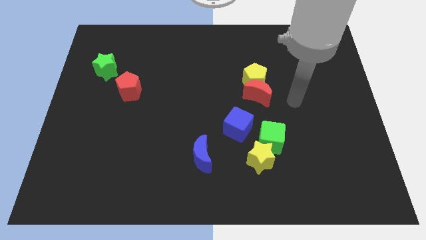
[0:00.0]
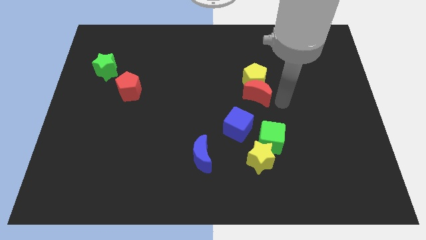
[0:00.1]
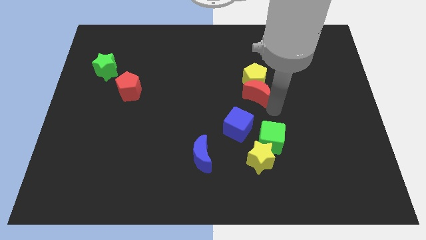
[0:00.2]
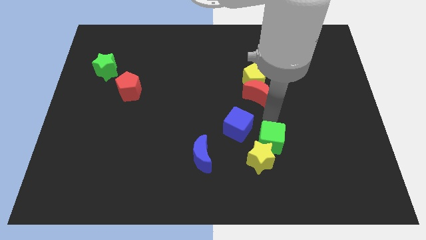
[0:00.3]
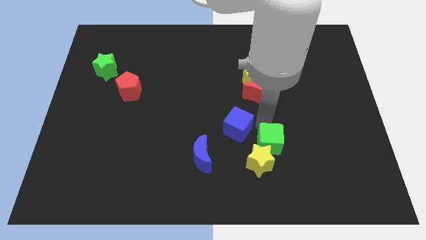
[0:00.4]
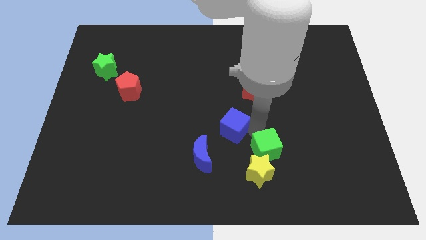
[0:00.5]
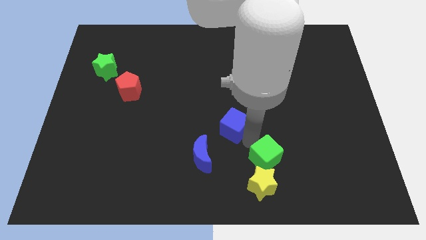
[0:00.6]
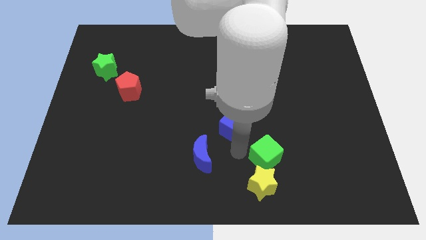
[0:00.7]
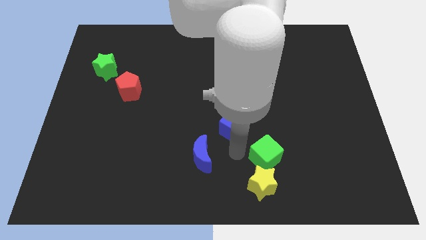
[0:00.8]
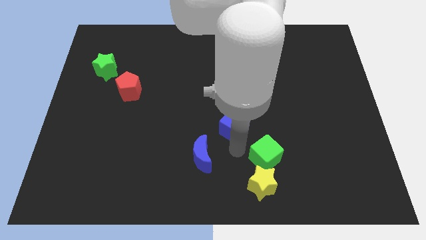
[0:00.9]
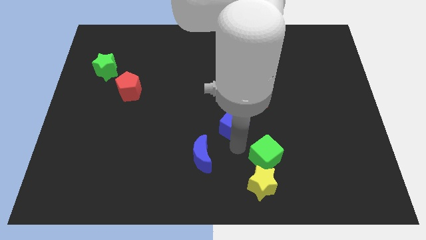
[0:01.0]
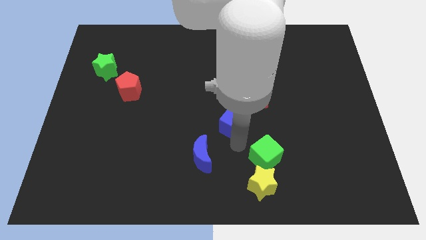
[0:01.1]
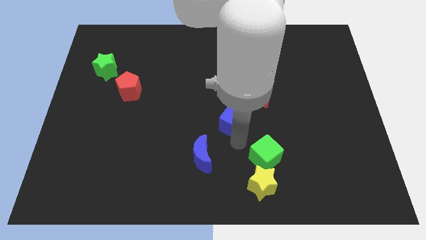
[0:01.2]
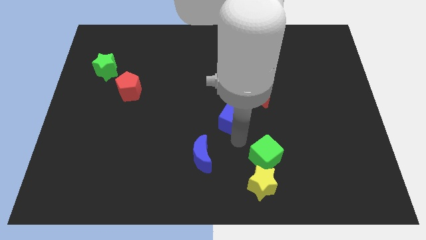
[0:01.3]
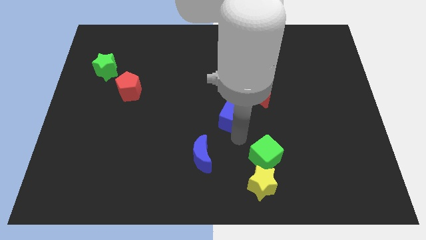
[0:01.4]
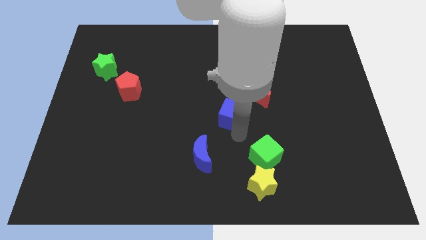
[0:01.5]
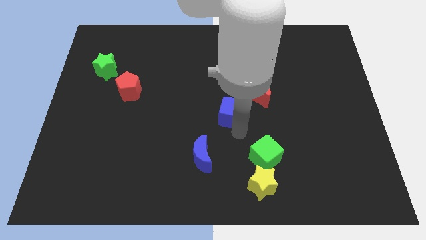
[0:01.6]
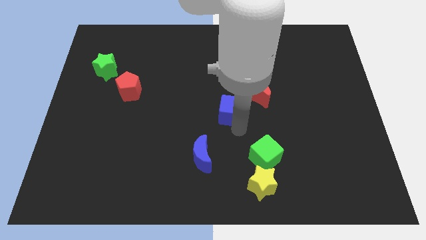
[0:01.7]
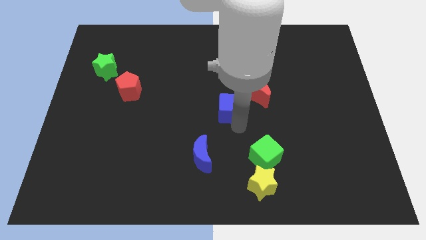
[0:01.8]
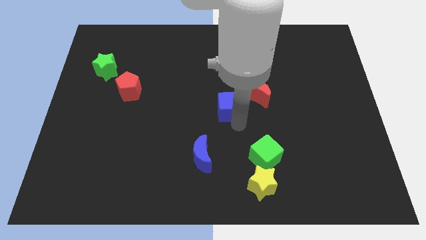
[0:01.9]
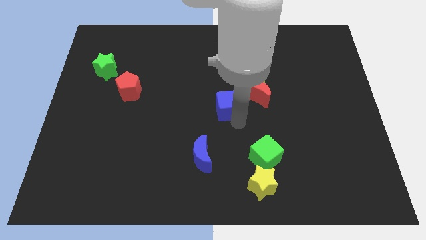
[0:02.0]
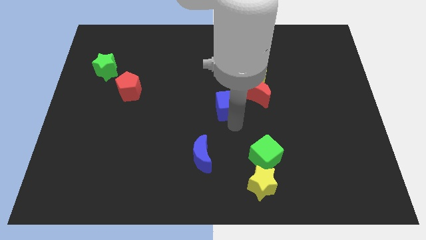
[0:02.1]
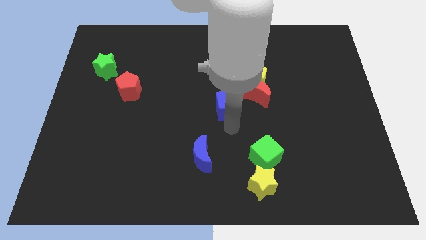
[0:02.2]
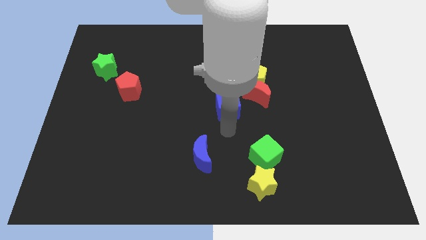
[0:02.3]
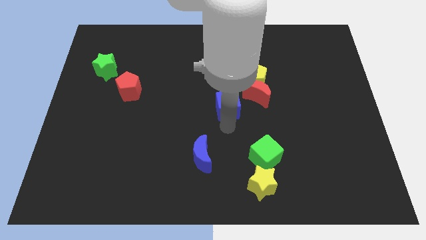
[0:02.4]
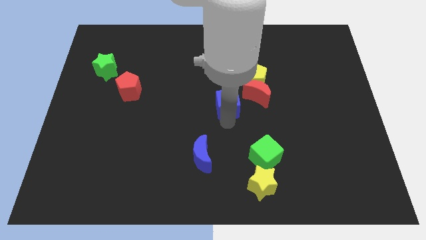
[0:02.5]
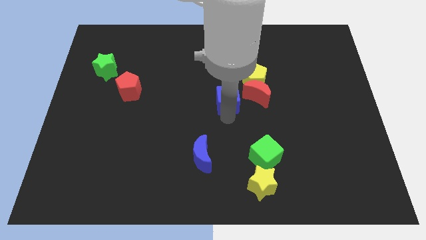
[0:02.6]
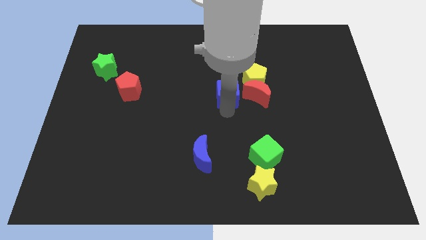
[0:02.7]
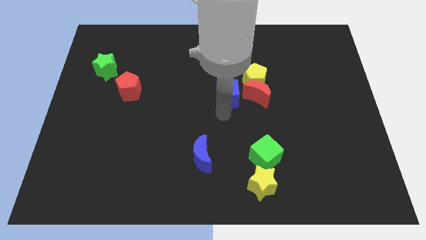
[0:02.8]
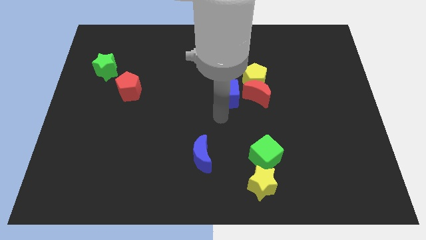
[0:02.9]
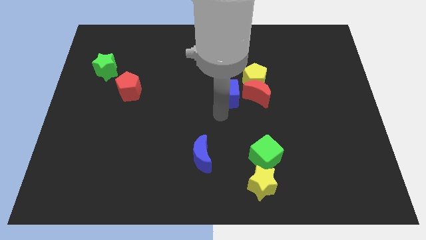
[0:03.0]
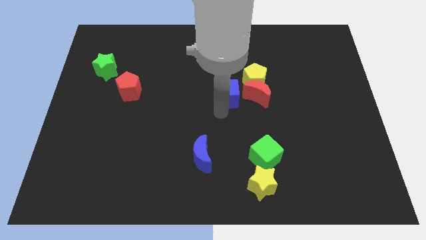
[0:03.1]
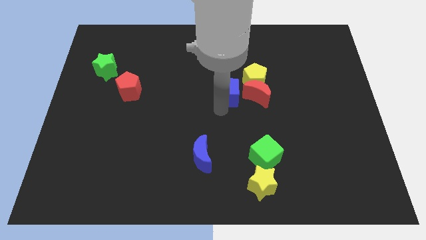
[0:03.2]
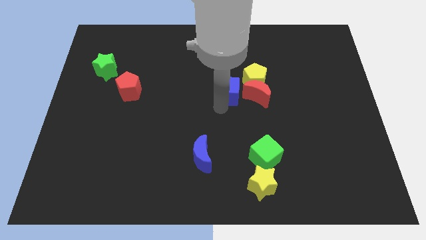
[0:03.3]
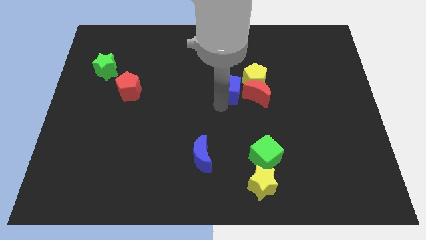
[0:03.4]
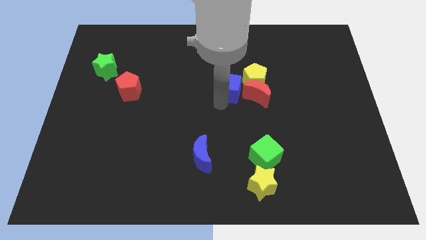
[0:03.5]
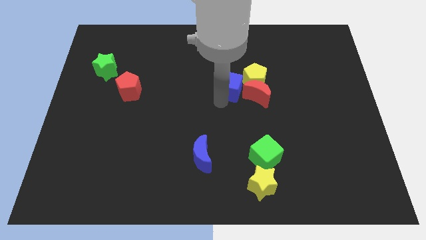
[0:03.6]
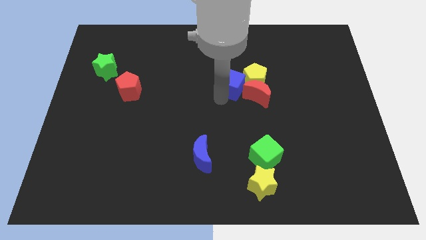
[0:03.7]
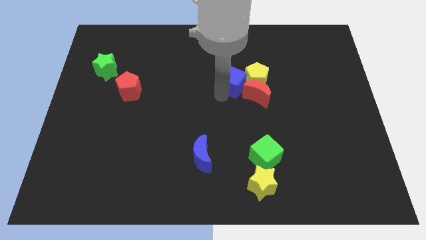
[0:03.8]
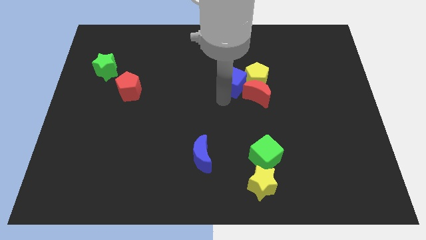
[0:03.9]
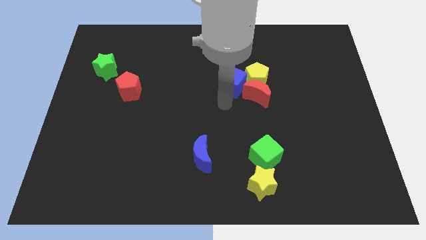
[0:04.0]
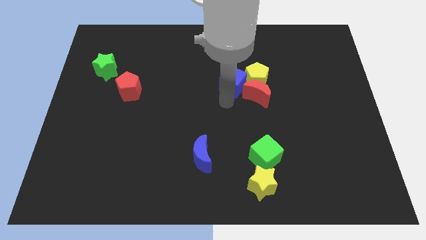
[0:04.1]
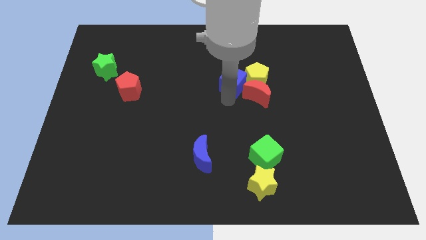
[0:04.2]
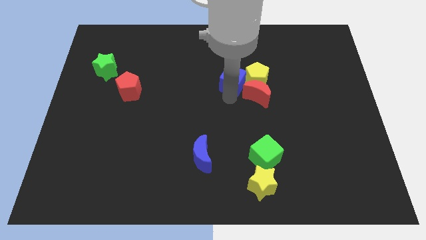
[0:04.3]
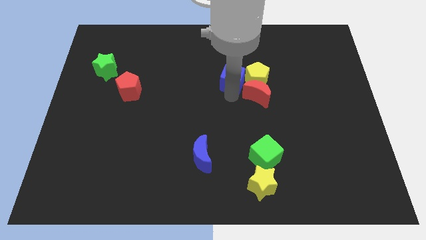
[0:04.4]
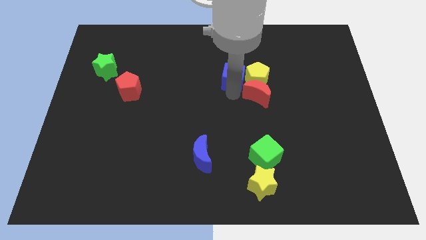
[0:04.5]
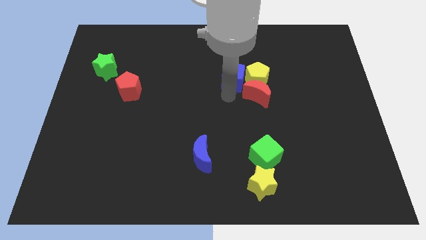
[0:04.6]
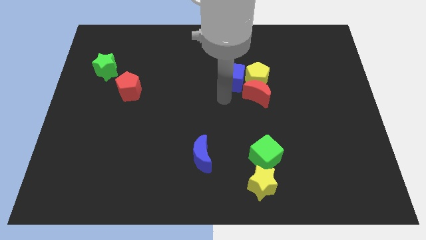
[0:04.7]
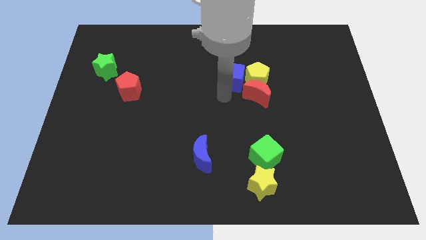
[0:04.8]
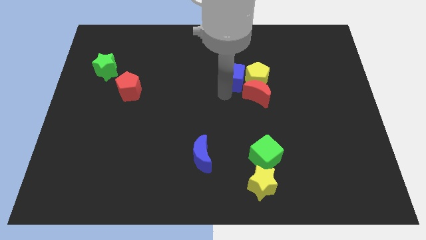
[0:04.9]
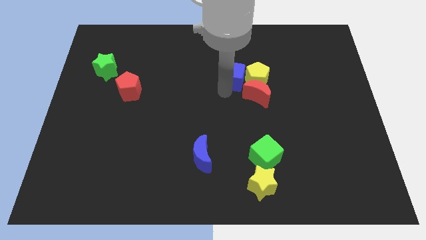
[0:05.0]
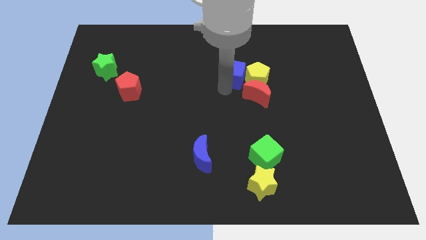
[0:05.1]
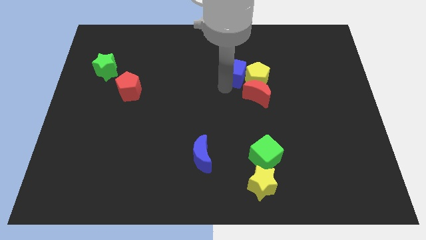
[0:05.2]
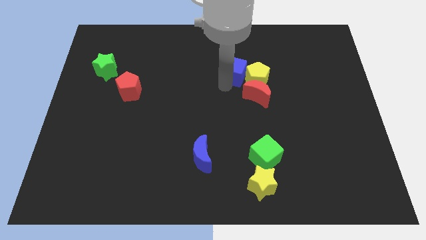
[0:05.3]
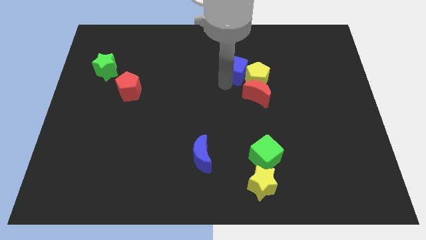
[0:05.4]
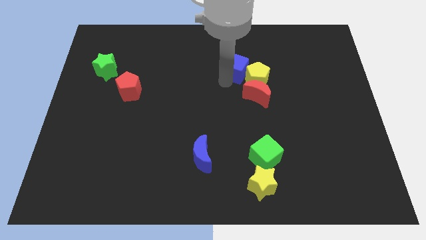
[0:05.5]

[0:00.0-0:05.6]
push the blue cube to the top side of the red moon

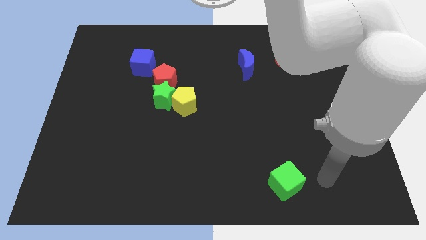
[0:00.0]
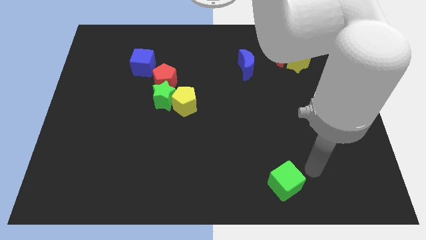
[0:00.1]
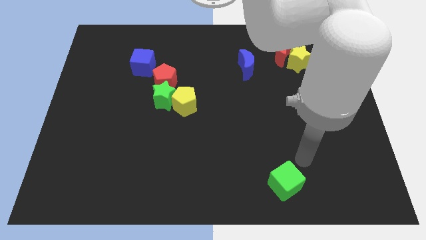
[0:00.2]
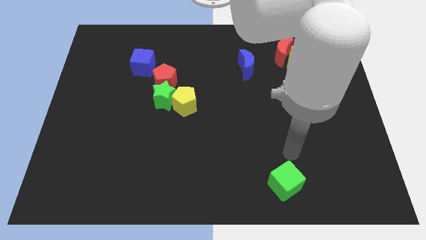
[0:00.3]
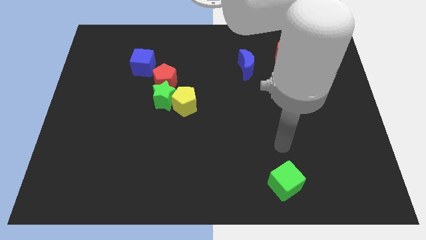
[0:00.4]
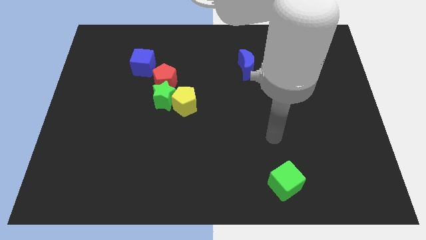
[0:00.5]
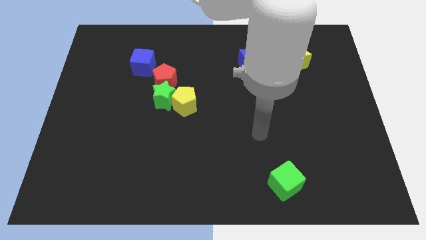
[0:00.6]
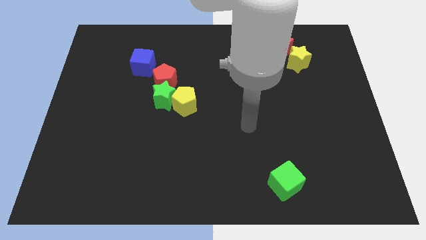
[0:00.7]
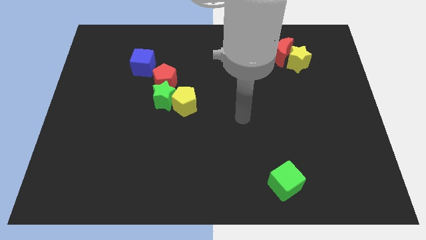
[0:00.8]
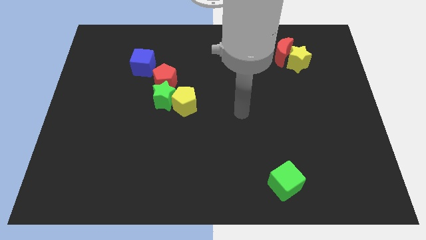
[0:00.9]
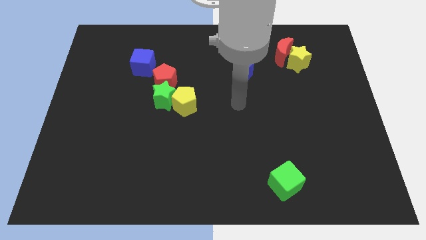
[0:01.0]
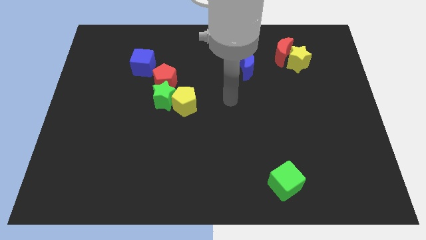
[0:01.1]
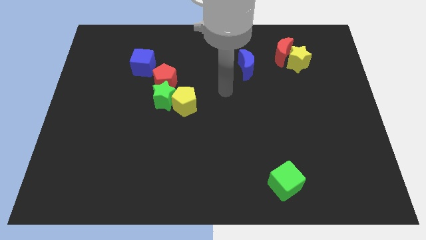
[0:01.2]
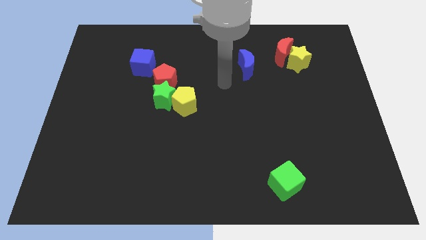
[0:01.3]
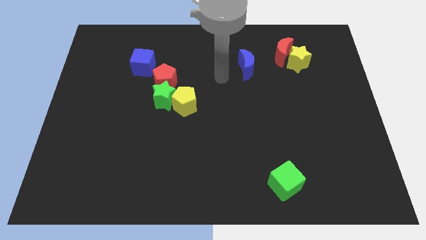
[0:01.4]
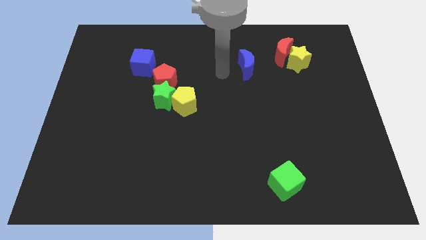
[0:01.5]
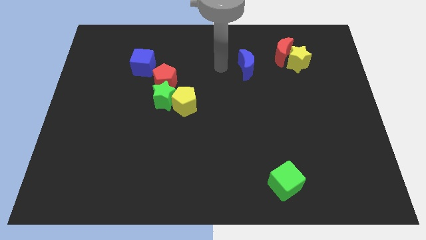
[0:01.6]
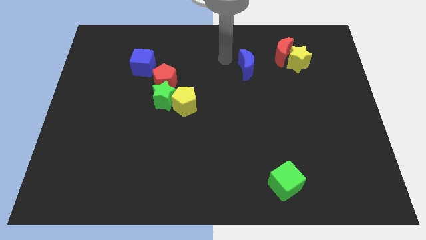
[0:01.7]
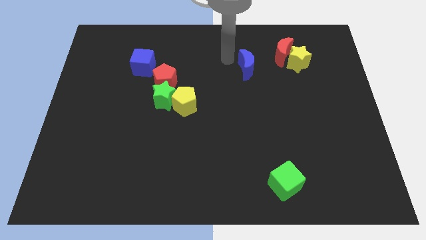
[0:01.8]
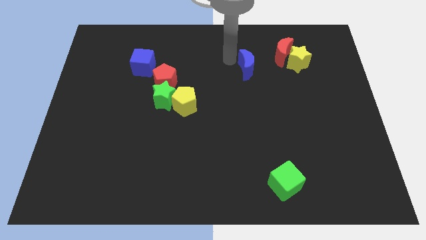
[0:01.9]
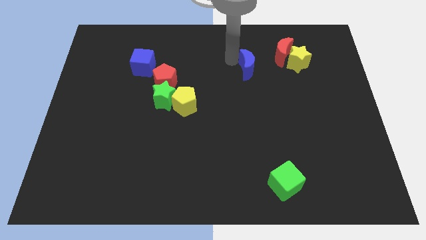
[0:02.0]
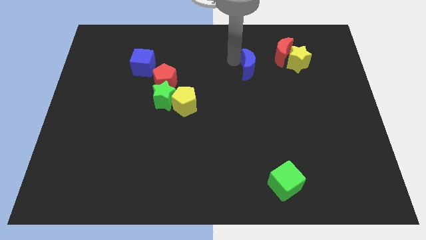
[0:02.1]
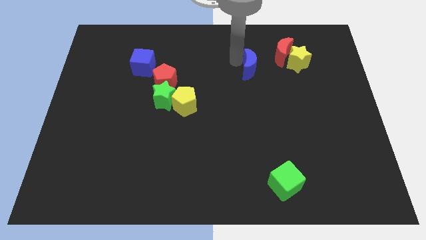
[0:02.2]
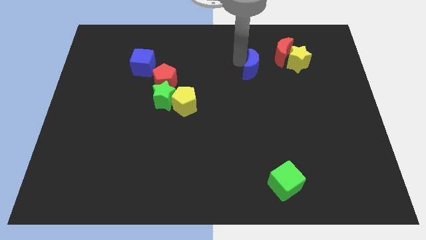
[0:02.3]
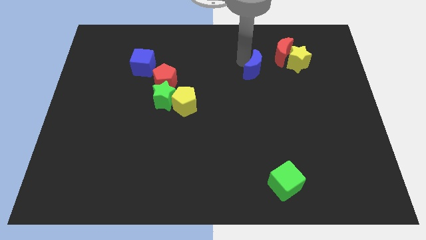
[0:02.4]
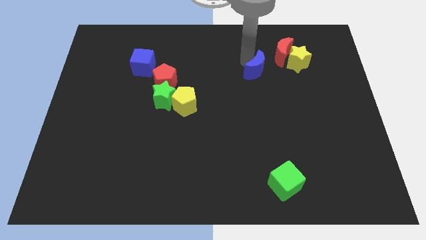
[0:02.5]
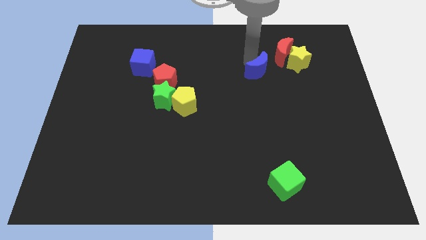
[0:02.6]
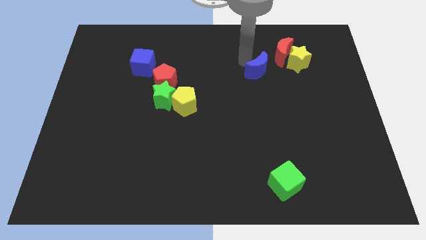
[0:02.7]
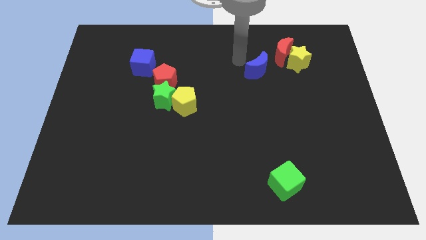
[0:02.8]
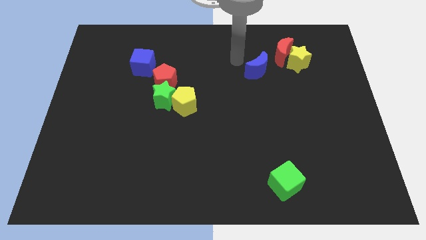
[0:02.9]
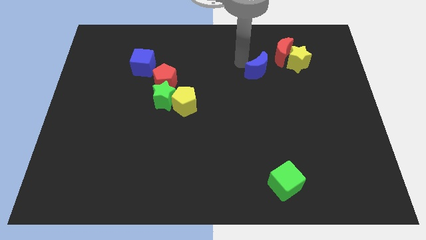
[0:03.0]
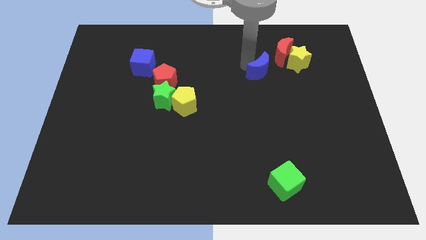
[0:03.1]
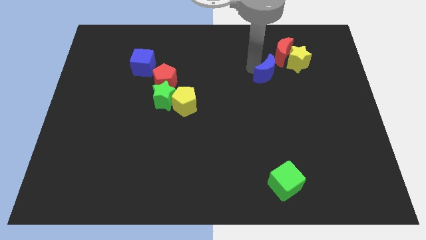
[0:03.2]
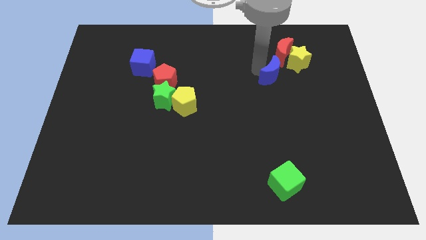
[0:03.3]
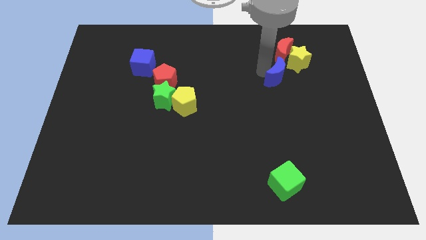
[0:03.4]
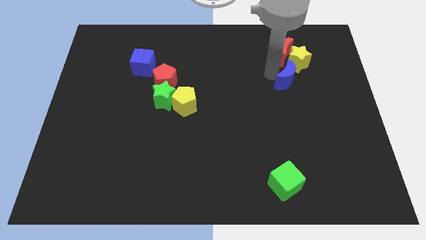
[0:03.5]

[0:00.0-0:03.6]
put the blue moon to the bottom of the yellow star
